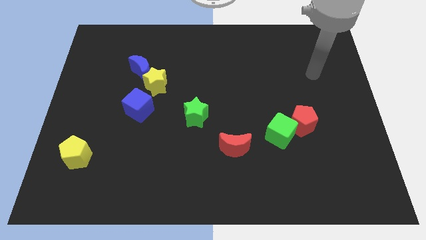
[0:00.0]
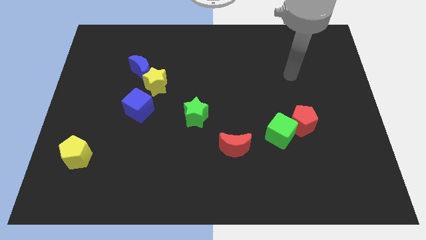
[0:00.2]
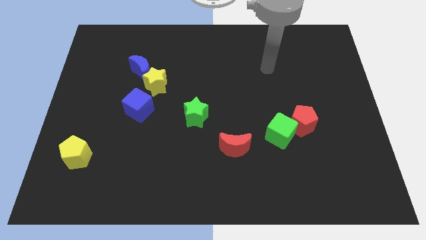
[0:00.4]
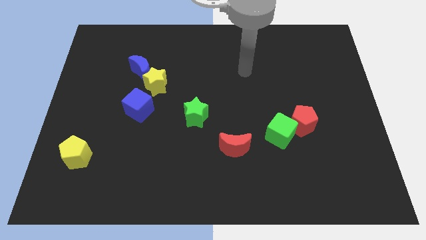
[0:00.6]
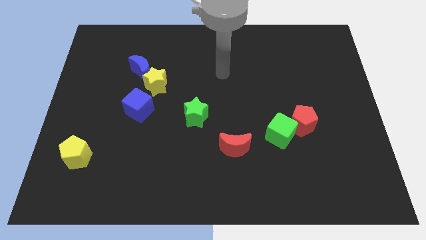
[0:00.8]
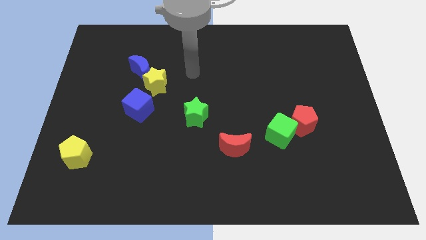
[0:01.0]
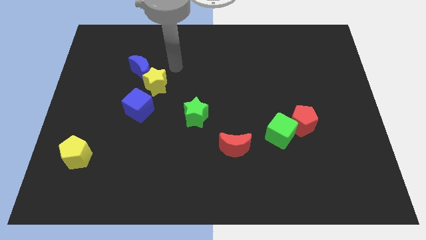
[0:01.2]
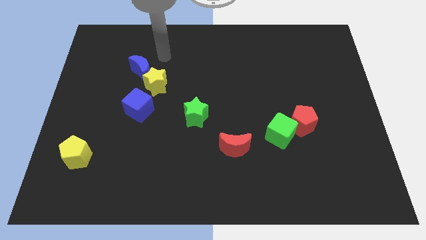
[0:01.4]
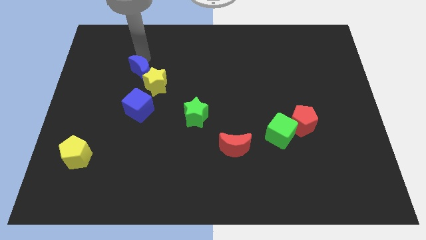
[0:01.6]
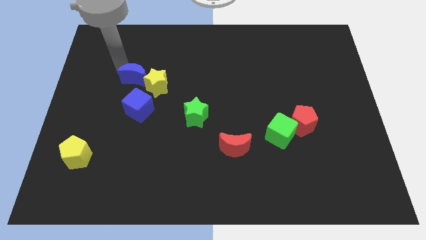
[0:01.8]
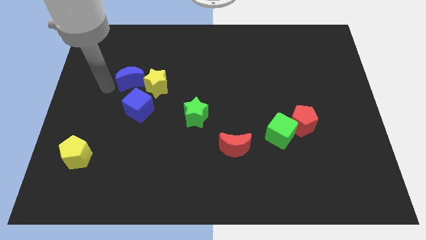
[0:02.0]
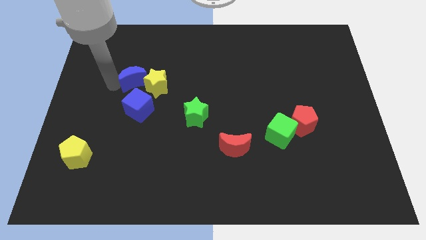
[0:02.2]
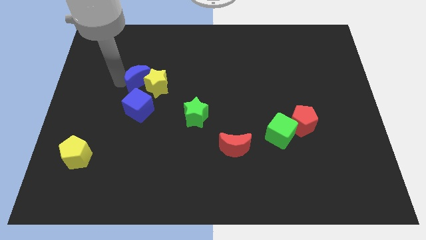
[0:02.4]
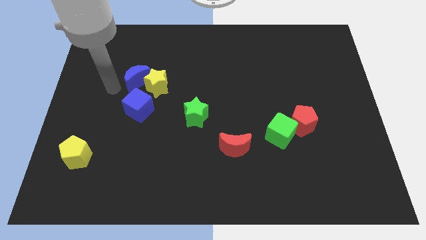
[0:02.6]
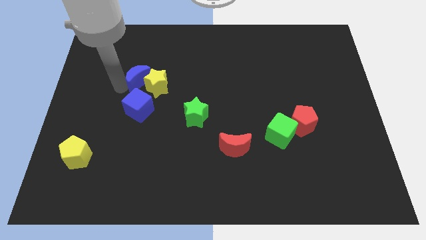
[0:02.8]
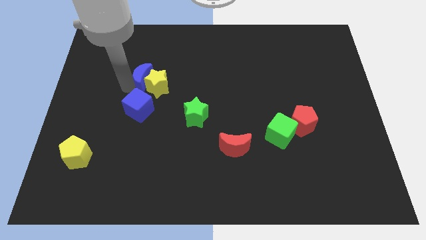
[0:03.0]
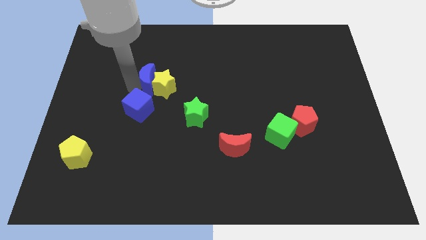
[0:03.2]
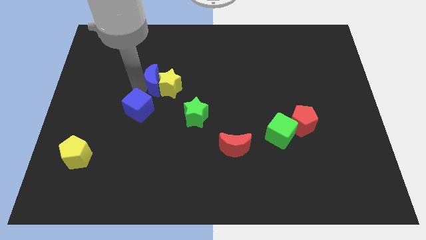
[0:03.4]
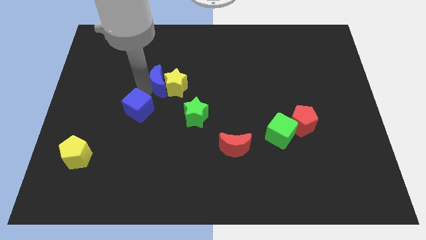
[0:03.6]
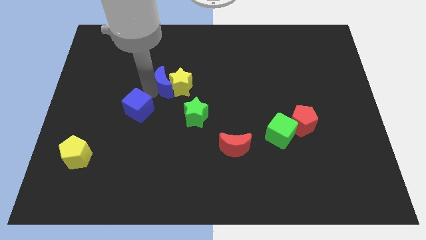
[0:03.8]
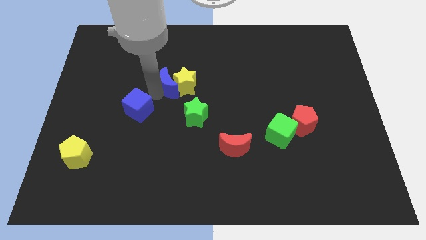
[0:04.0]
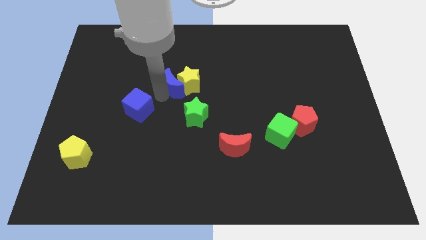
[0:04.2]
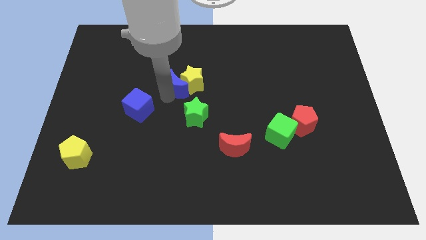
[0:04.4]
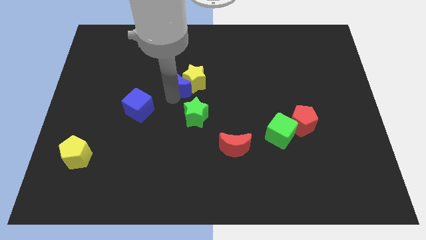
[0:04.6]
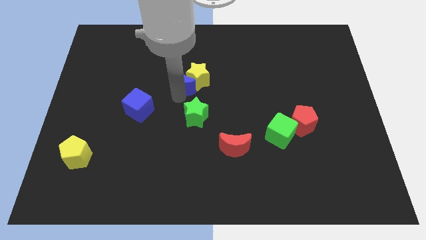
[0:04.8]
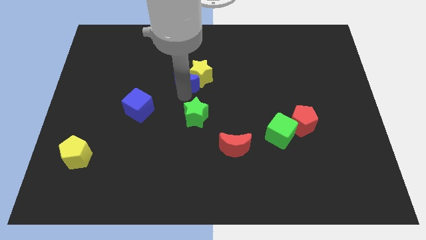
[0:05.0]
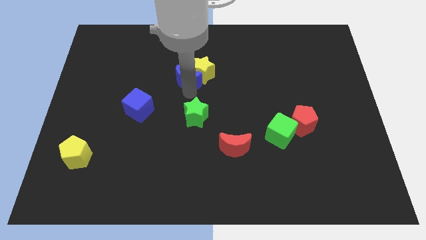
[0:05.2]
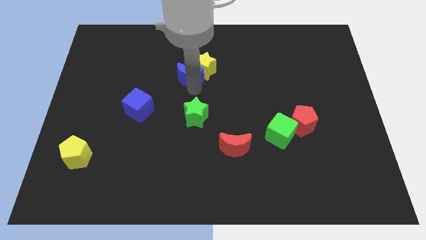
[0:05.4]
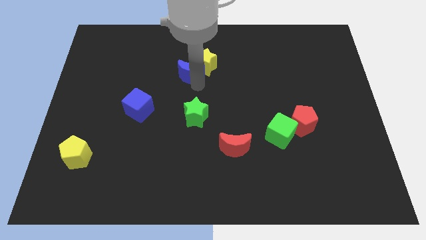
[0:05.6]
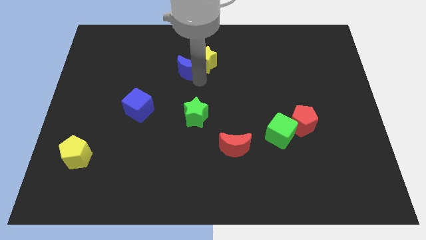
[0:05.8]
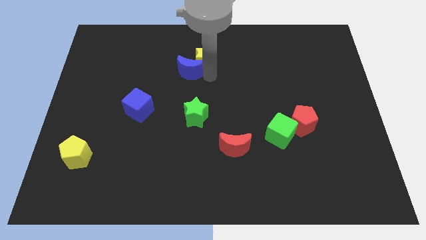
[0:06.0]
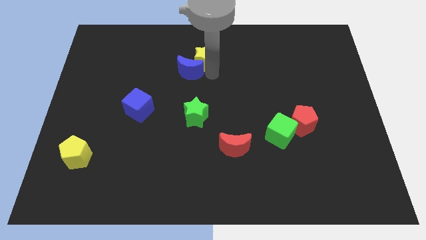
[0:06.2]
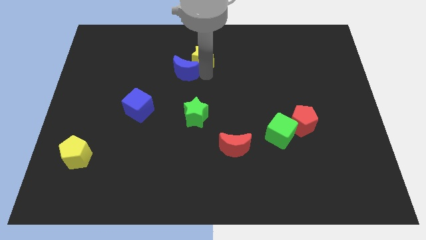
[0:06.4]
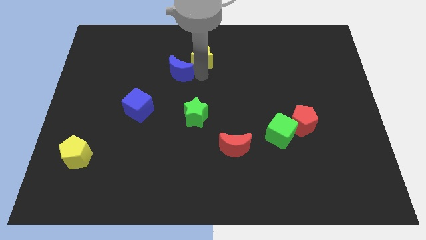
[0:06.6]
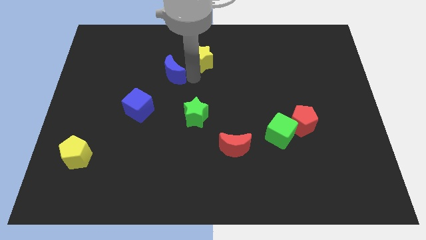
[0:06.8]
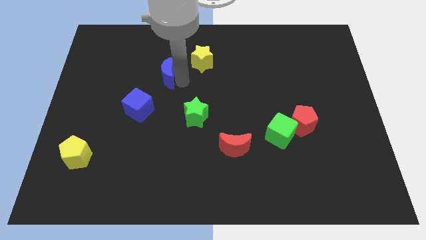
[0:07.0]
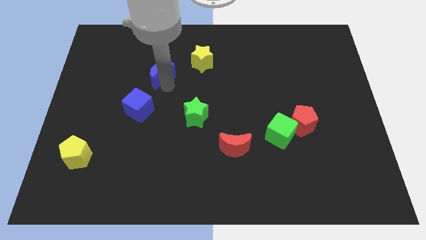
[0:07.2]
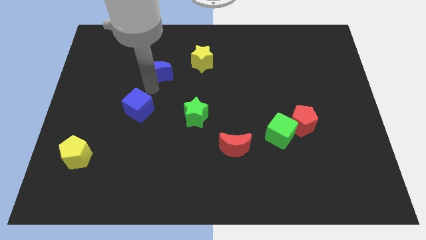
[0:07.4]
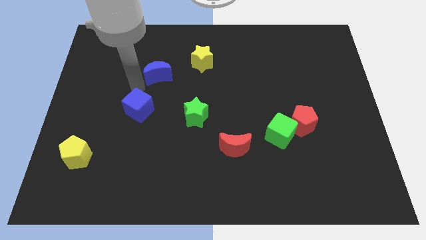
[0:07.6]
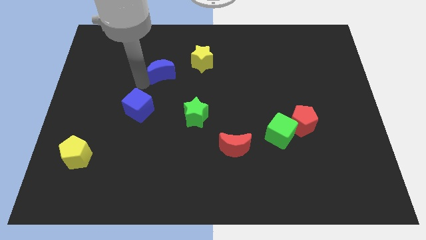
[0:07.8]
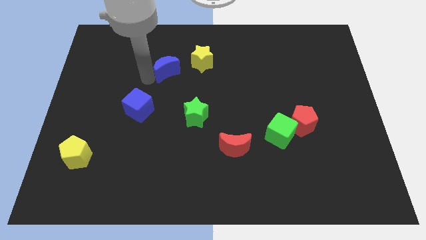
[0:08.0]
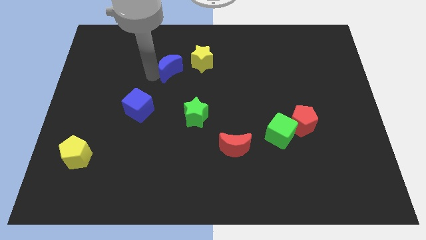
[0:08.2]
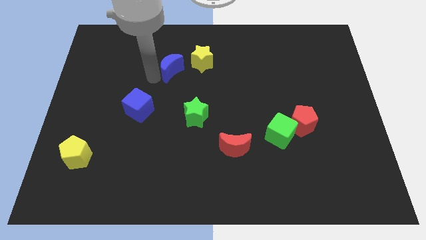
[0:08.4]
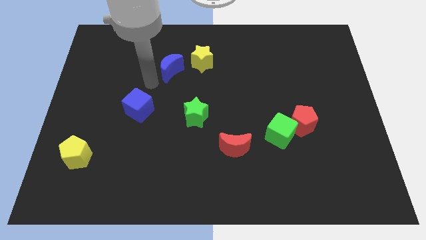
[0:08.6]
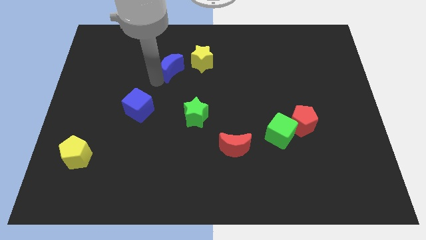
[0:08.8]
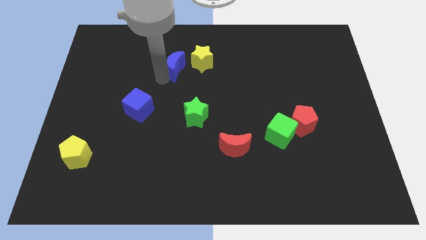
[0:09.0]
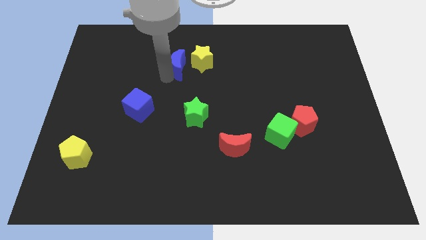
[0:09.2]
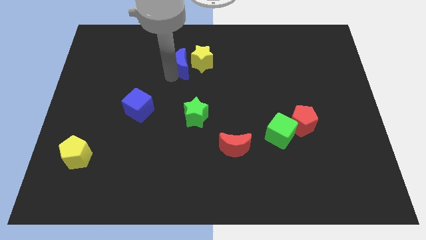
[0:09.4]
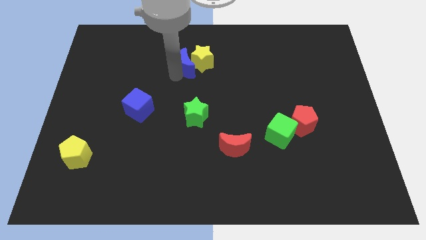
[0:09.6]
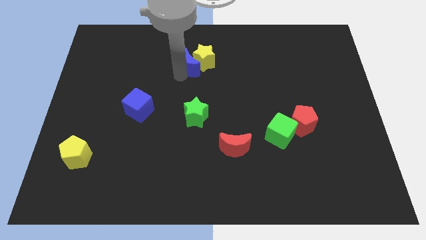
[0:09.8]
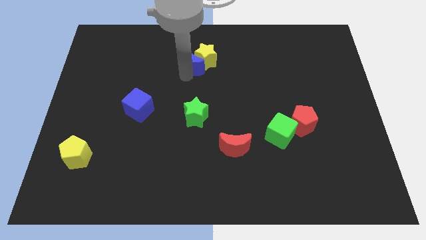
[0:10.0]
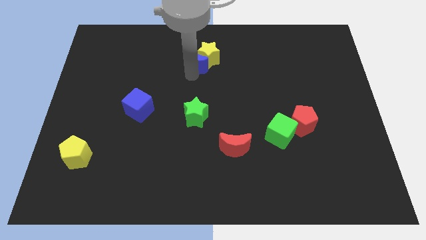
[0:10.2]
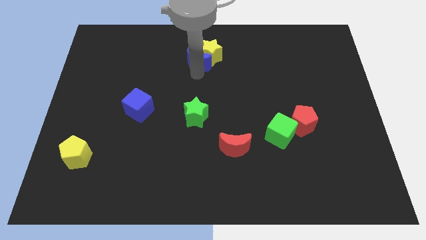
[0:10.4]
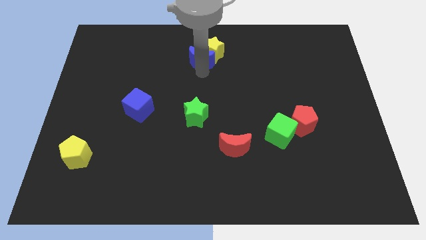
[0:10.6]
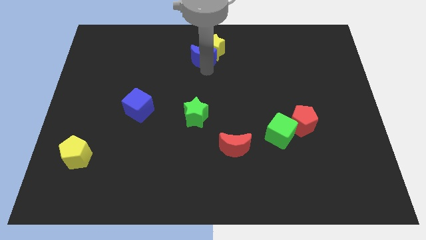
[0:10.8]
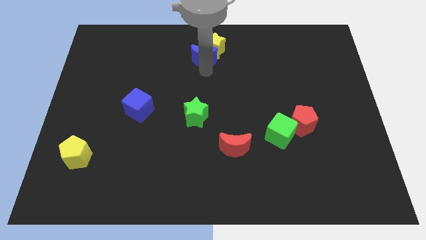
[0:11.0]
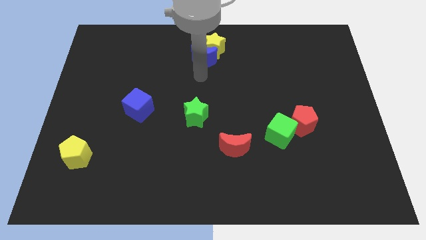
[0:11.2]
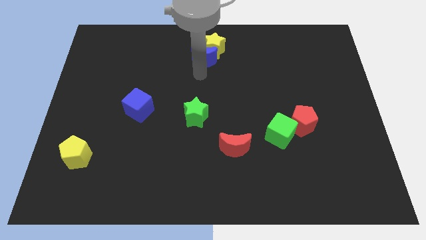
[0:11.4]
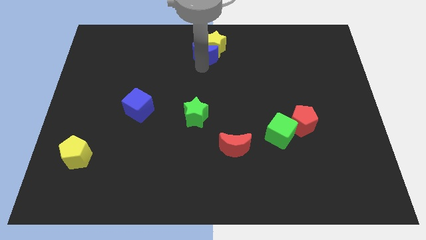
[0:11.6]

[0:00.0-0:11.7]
slide the blue moon to the top

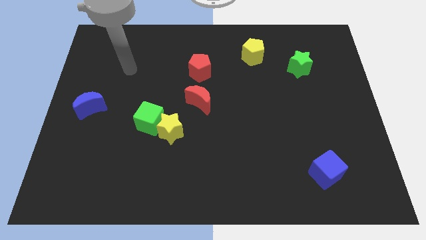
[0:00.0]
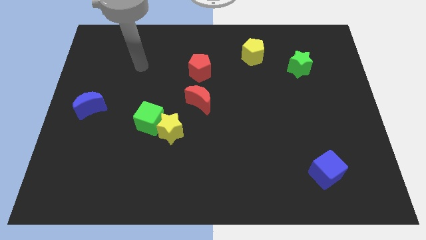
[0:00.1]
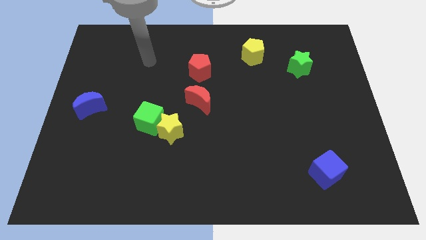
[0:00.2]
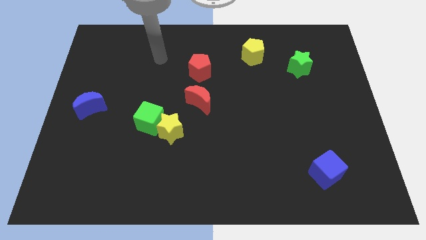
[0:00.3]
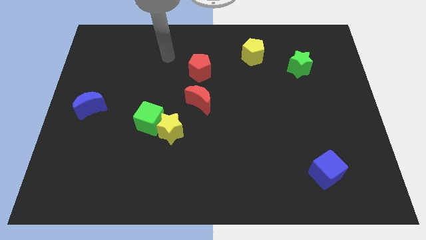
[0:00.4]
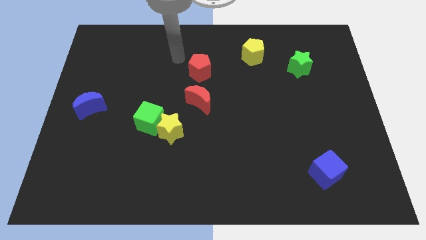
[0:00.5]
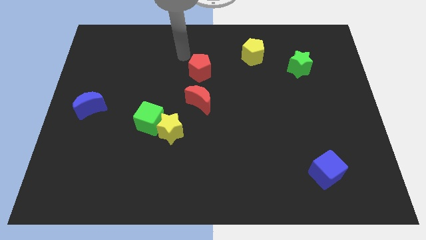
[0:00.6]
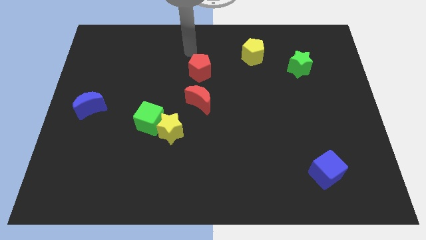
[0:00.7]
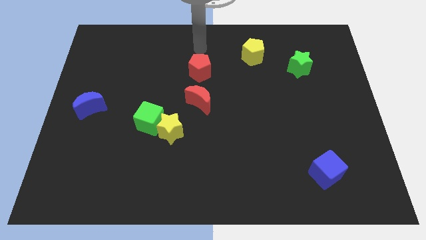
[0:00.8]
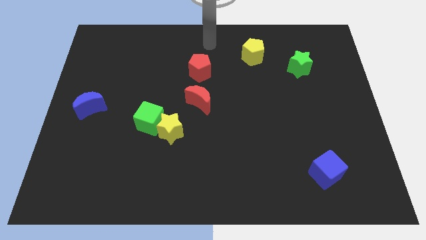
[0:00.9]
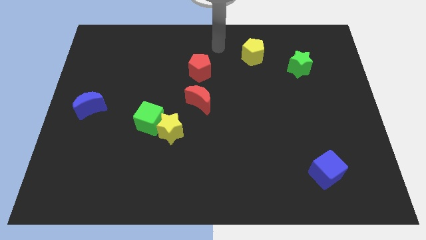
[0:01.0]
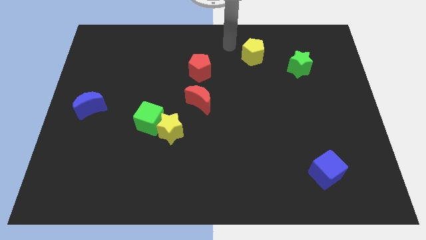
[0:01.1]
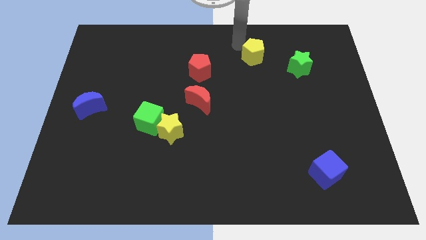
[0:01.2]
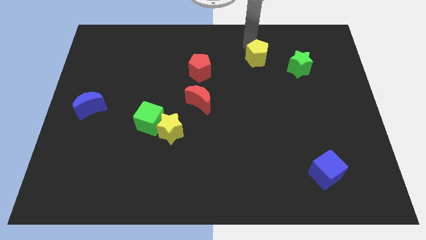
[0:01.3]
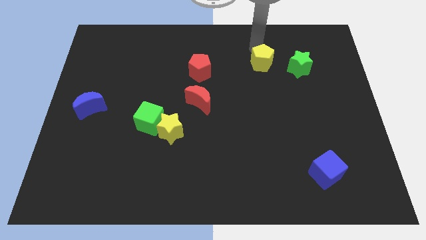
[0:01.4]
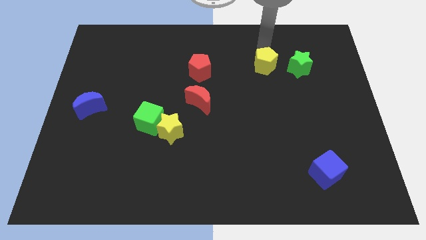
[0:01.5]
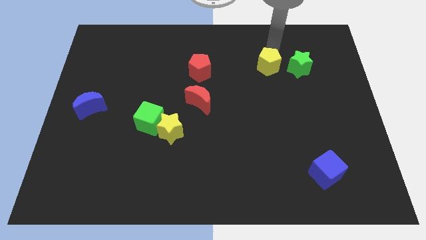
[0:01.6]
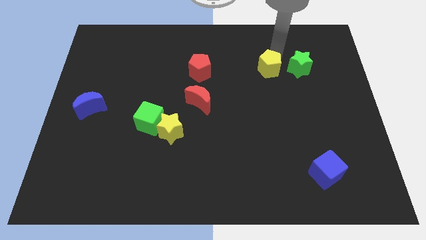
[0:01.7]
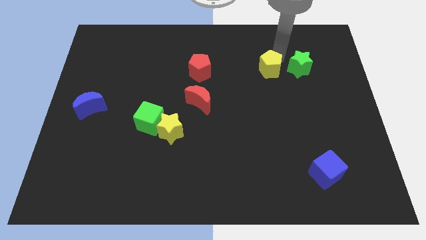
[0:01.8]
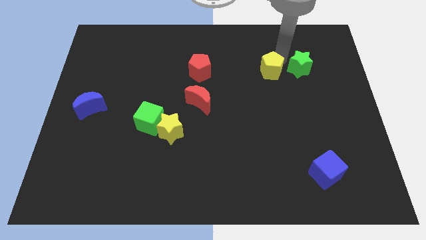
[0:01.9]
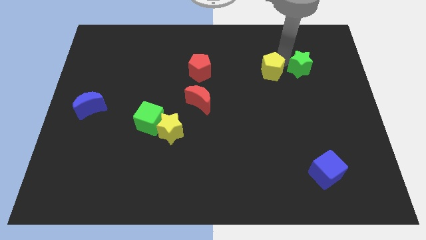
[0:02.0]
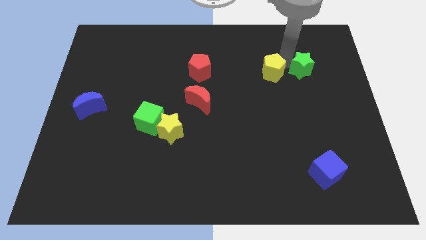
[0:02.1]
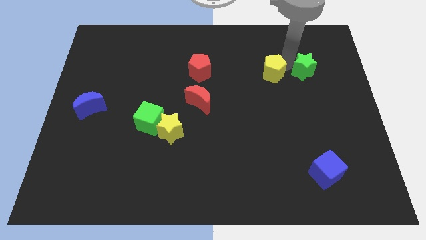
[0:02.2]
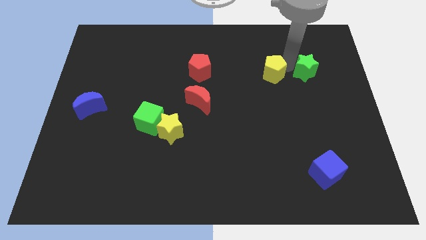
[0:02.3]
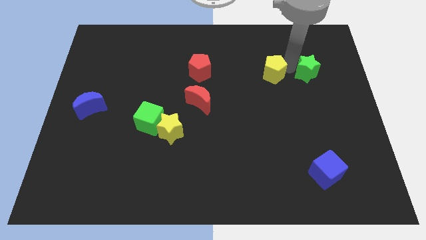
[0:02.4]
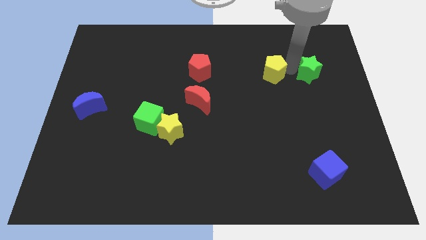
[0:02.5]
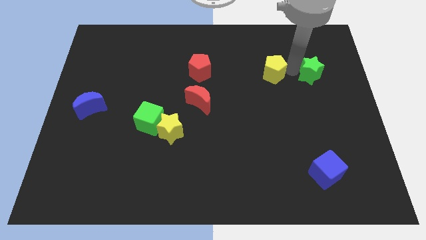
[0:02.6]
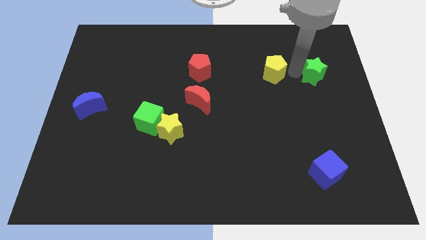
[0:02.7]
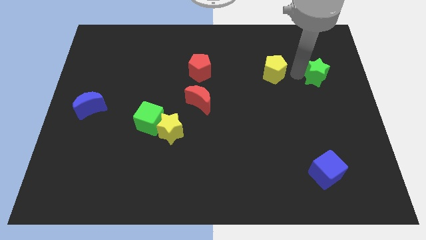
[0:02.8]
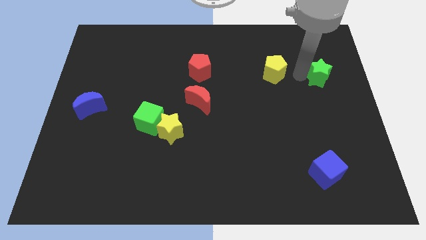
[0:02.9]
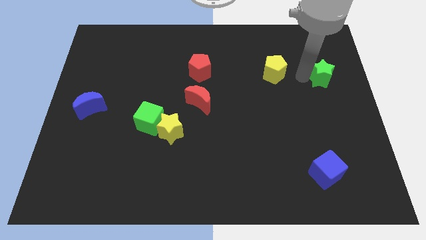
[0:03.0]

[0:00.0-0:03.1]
slide the green star to the right side
